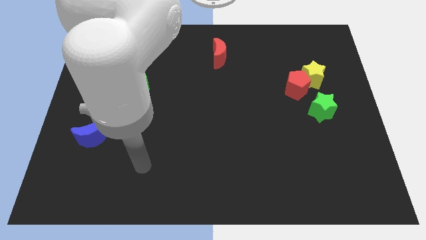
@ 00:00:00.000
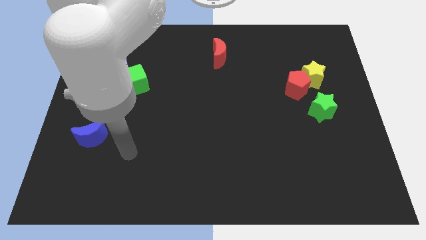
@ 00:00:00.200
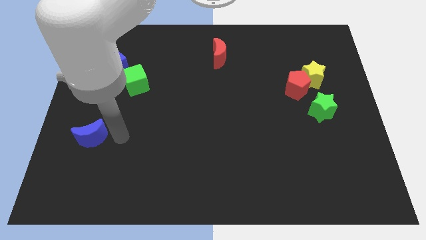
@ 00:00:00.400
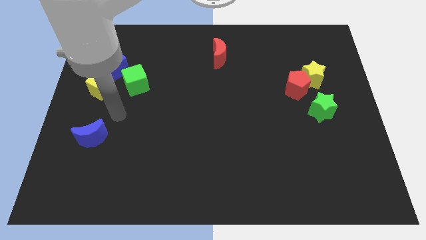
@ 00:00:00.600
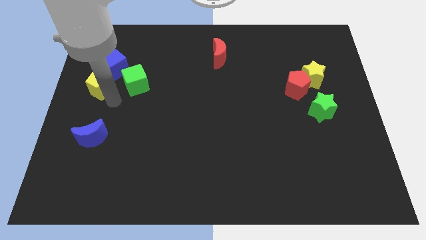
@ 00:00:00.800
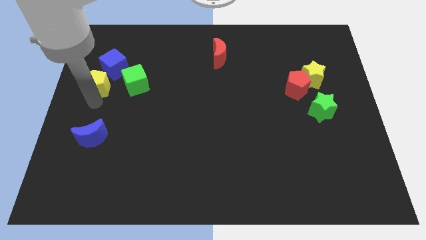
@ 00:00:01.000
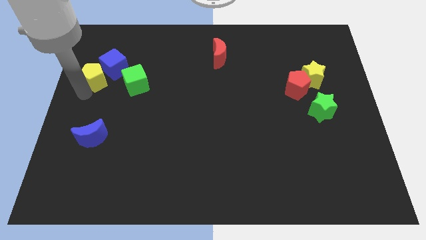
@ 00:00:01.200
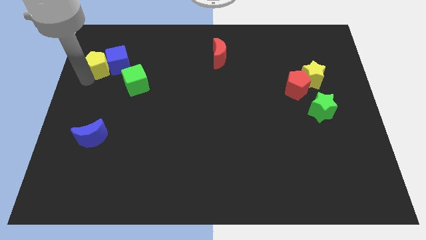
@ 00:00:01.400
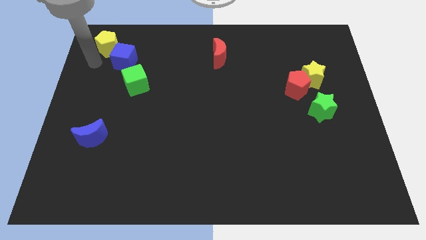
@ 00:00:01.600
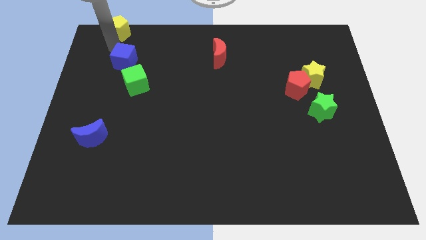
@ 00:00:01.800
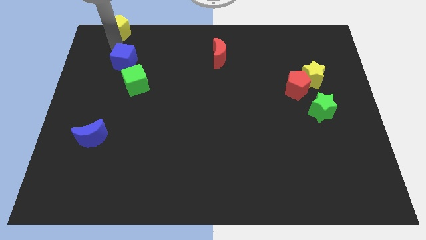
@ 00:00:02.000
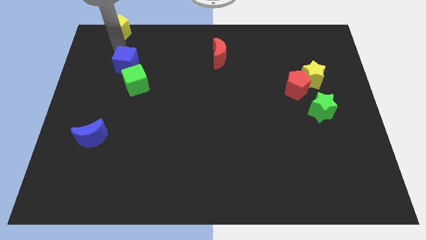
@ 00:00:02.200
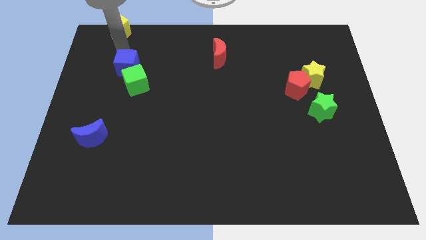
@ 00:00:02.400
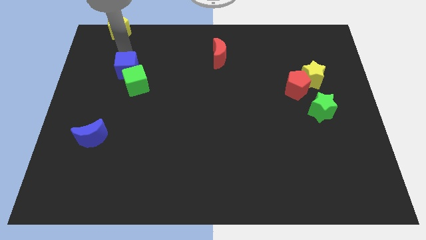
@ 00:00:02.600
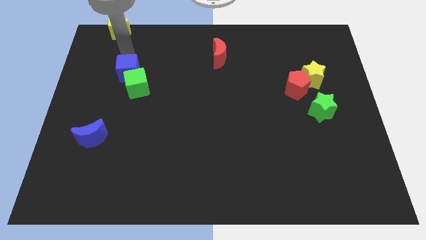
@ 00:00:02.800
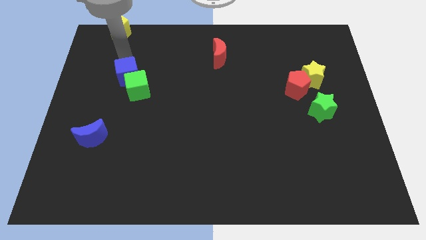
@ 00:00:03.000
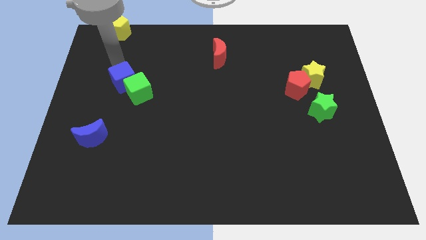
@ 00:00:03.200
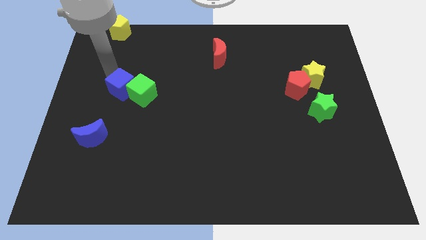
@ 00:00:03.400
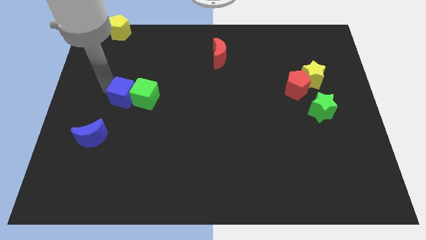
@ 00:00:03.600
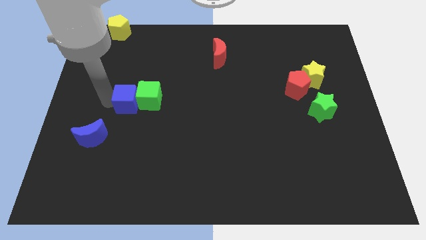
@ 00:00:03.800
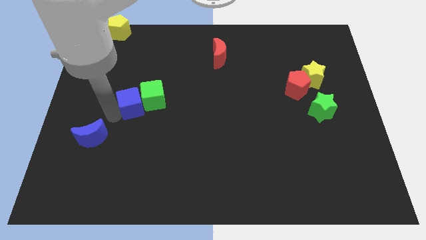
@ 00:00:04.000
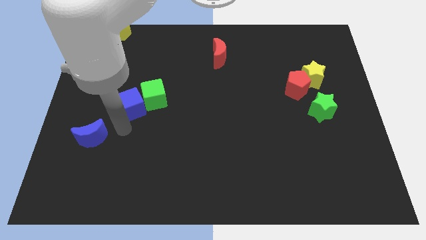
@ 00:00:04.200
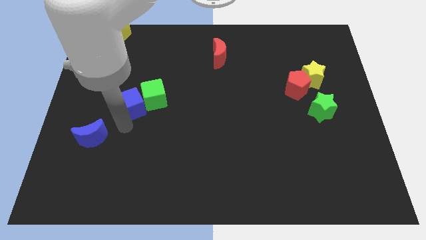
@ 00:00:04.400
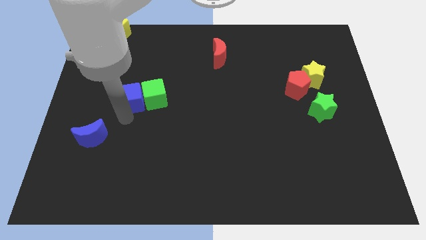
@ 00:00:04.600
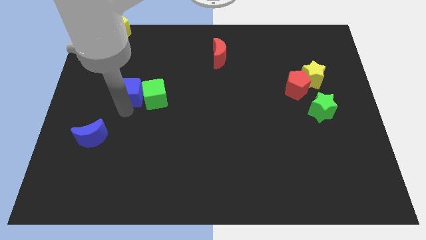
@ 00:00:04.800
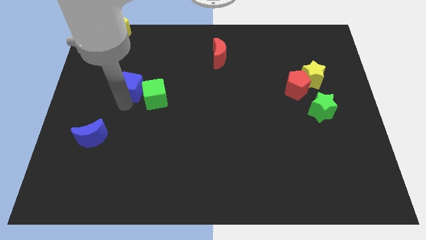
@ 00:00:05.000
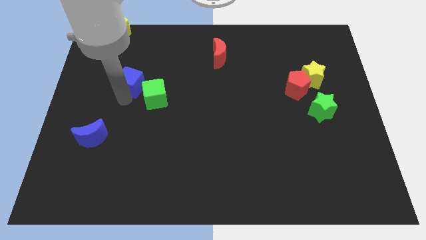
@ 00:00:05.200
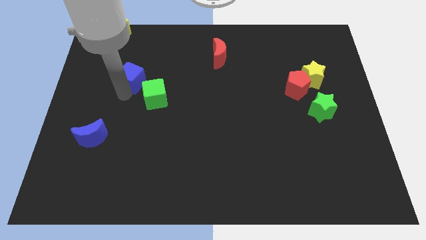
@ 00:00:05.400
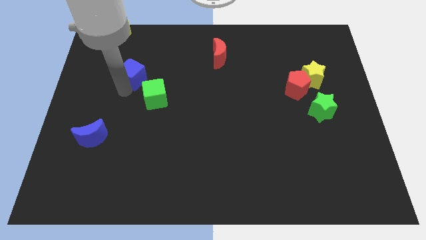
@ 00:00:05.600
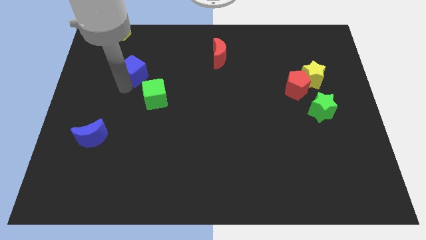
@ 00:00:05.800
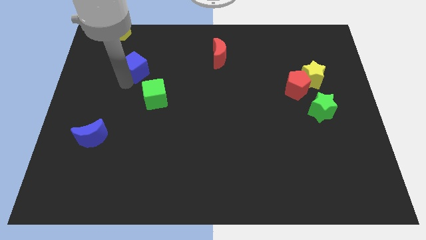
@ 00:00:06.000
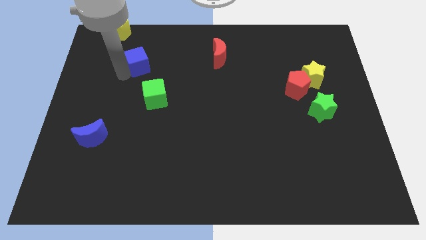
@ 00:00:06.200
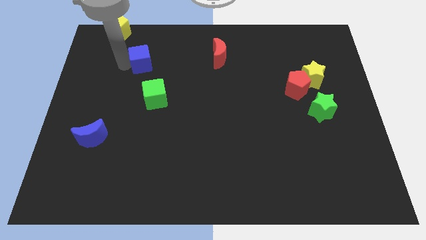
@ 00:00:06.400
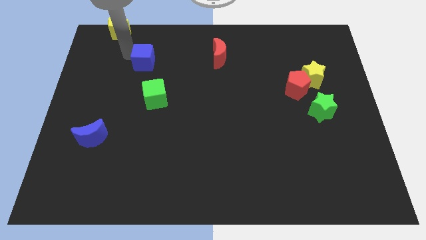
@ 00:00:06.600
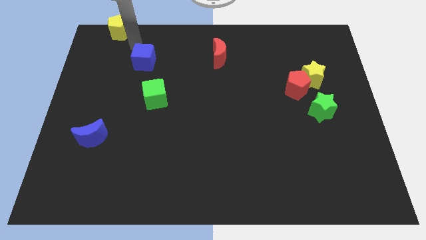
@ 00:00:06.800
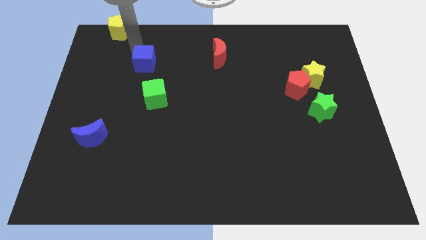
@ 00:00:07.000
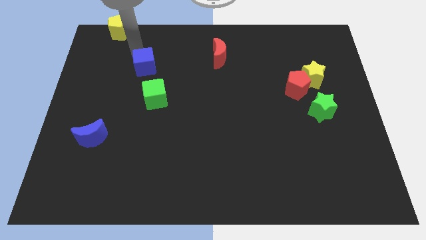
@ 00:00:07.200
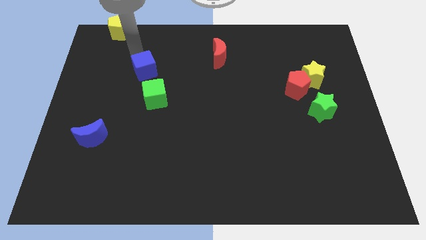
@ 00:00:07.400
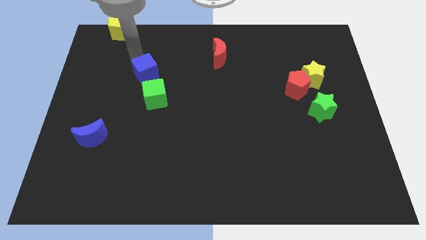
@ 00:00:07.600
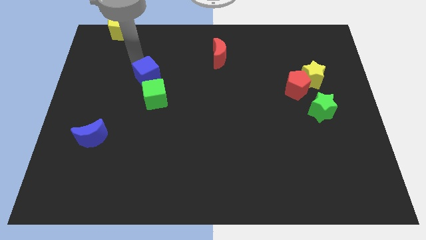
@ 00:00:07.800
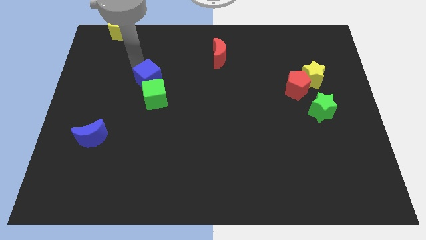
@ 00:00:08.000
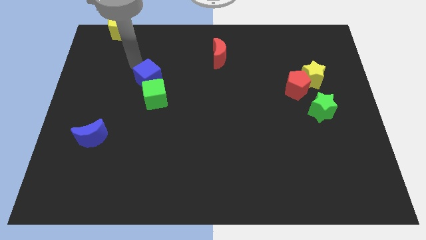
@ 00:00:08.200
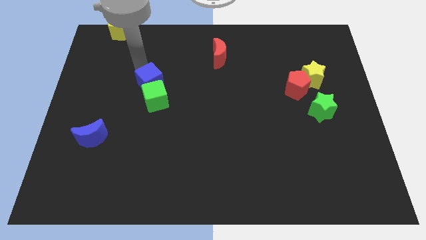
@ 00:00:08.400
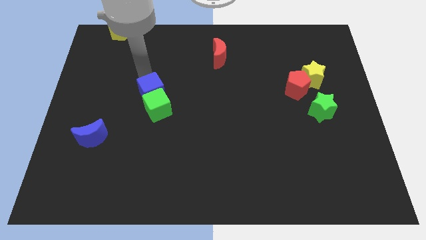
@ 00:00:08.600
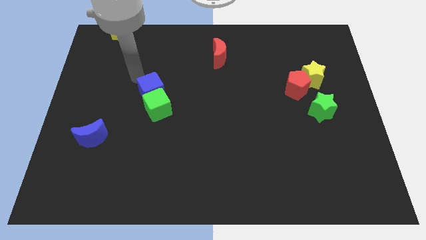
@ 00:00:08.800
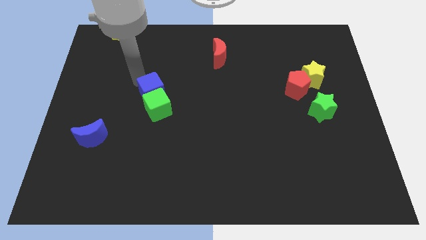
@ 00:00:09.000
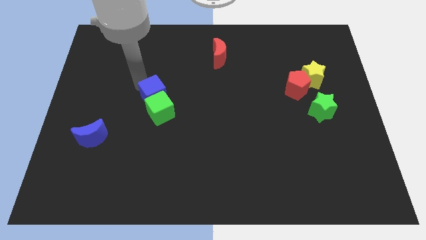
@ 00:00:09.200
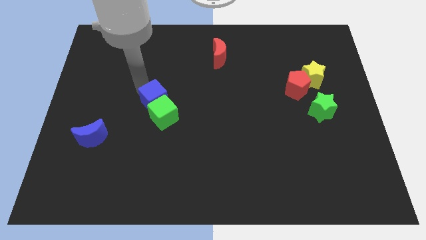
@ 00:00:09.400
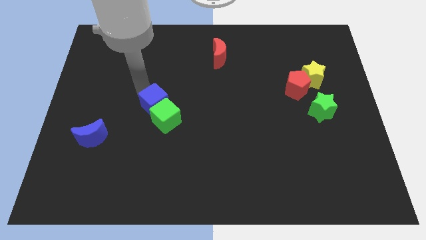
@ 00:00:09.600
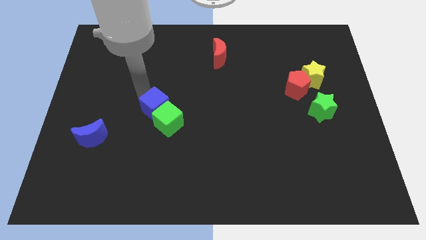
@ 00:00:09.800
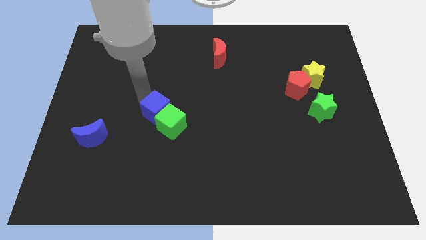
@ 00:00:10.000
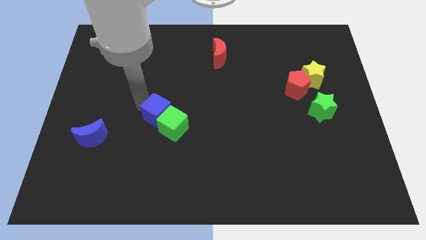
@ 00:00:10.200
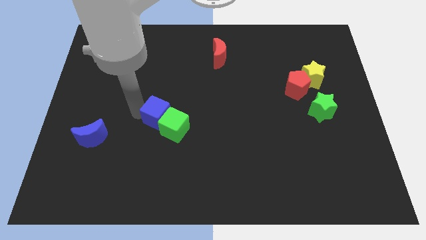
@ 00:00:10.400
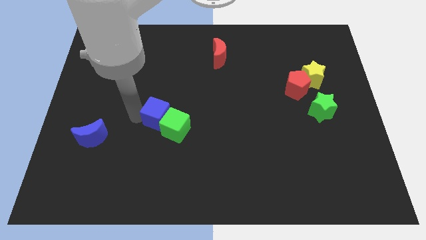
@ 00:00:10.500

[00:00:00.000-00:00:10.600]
slide the blue cube down and then to the right

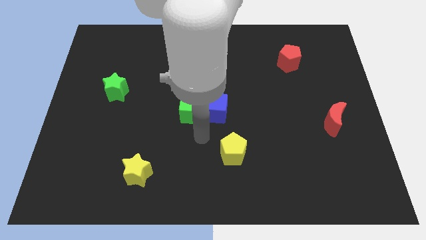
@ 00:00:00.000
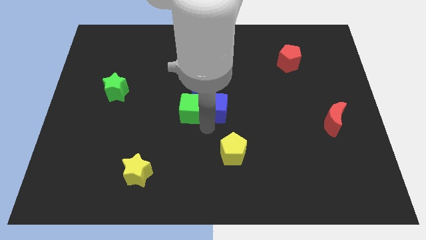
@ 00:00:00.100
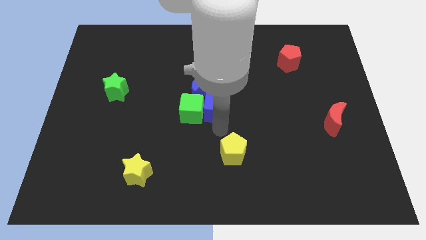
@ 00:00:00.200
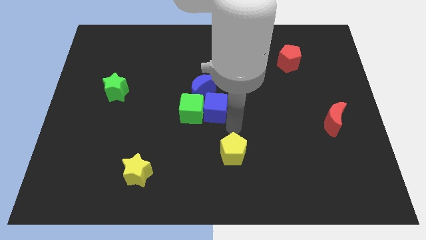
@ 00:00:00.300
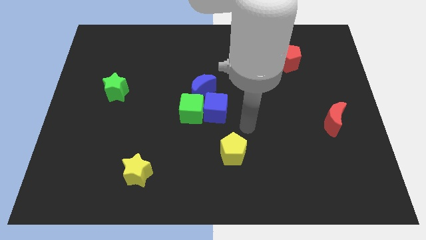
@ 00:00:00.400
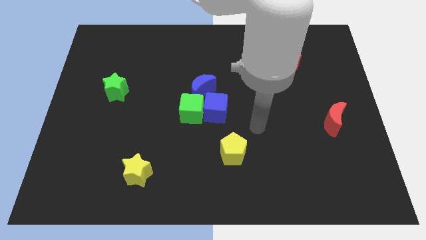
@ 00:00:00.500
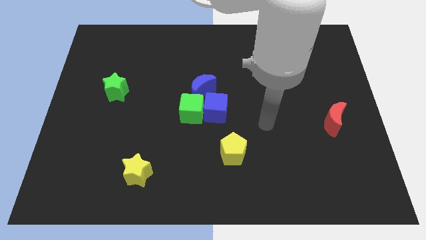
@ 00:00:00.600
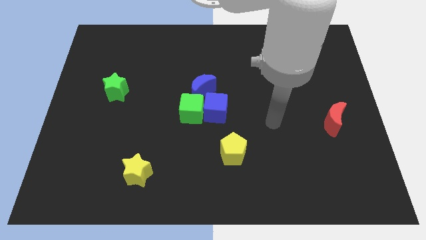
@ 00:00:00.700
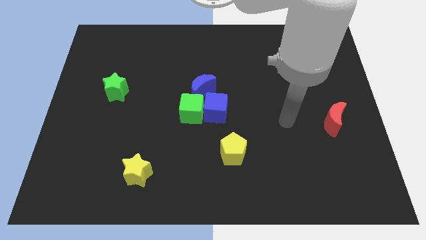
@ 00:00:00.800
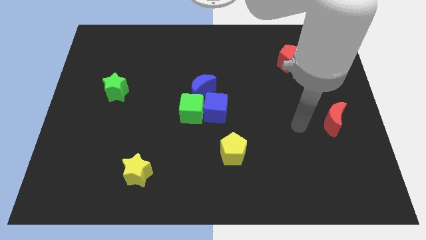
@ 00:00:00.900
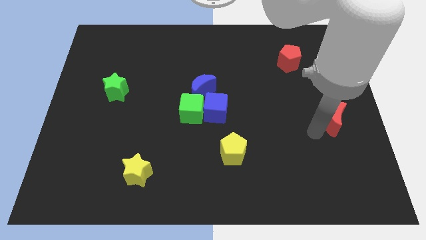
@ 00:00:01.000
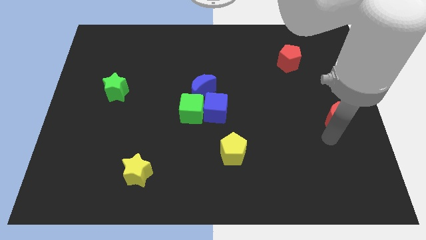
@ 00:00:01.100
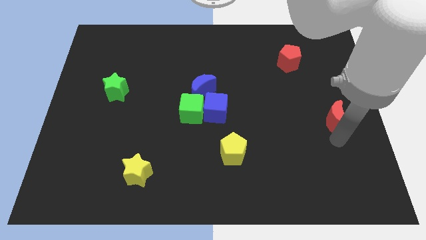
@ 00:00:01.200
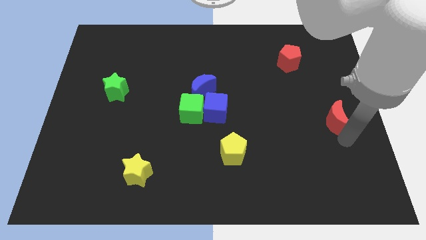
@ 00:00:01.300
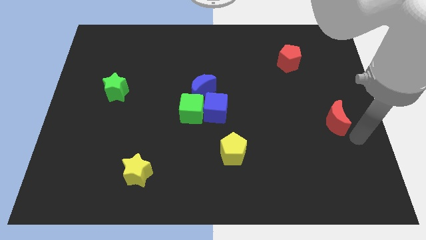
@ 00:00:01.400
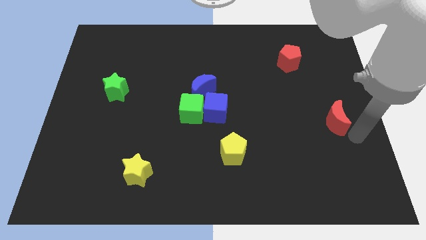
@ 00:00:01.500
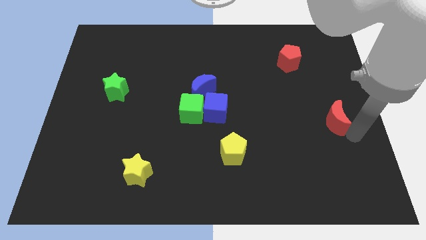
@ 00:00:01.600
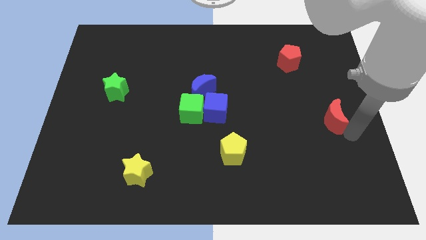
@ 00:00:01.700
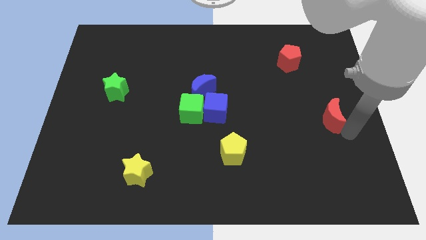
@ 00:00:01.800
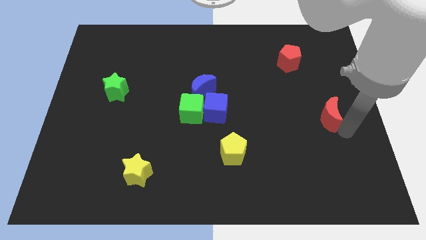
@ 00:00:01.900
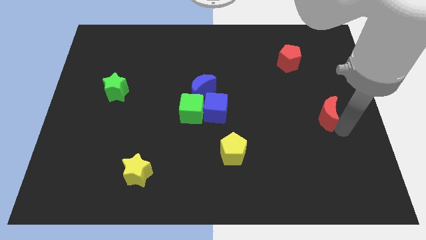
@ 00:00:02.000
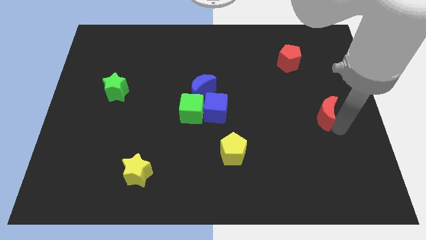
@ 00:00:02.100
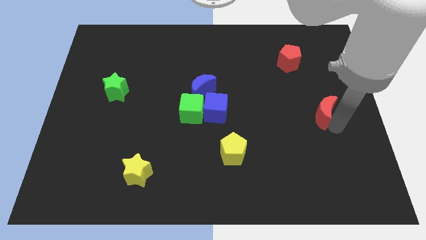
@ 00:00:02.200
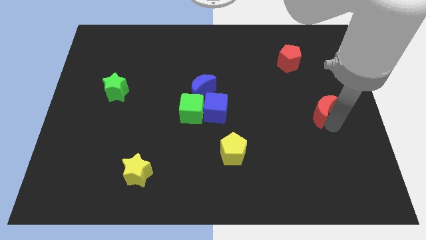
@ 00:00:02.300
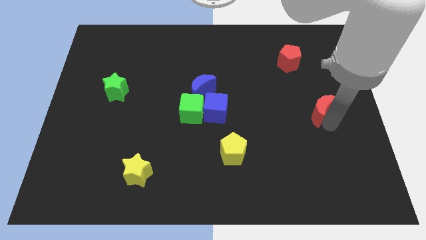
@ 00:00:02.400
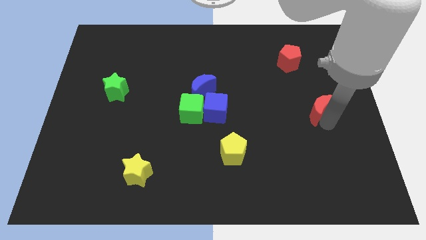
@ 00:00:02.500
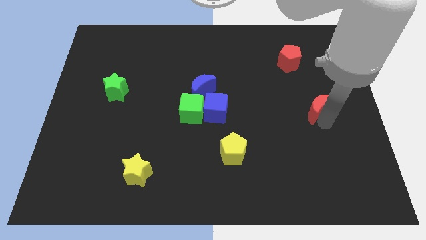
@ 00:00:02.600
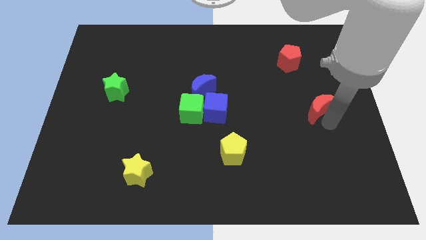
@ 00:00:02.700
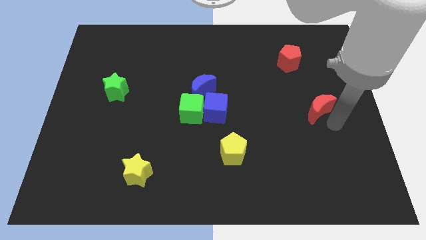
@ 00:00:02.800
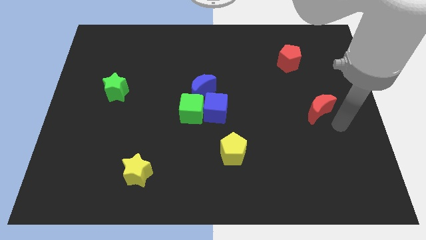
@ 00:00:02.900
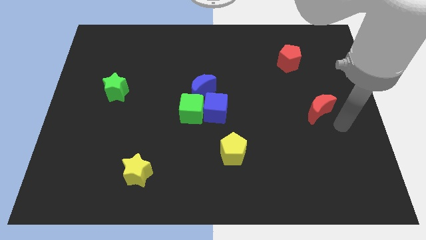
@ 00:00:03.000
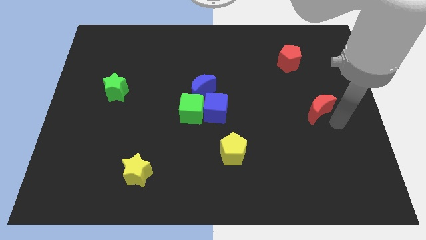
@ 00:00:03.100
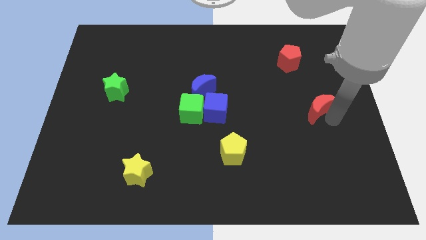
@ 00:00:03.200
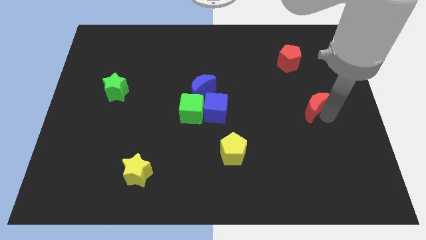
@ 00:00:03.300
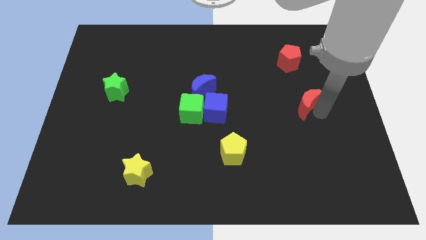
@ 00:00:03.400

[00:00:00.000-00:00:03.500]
move the red moon upwards and to the left a bit
